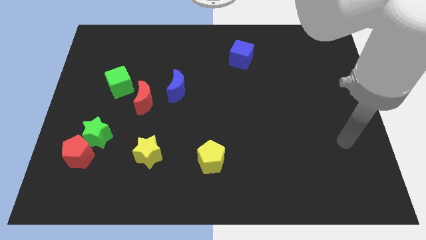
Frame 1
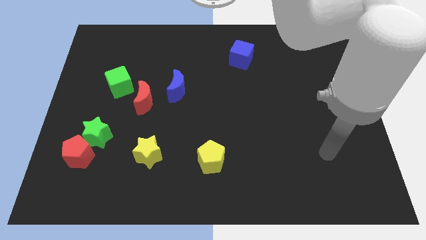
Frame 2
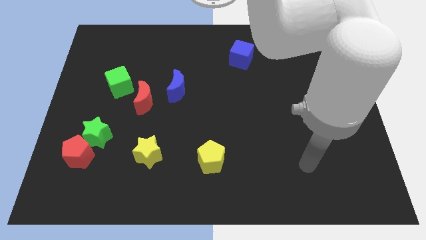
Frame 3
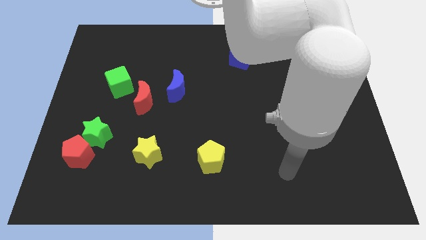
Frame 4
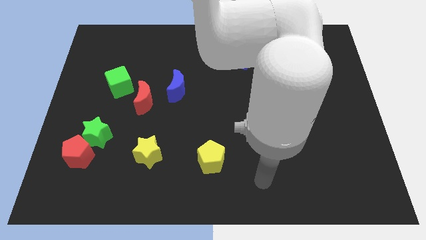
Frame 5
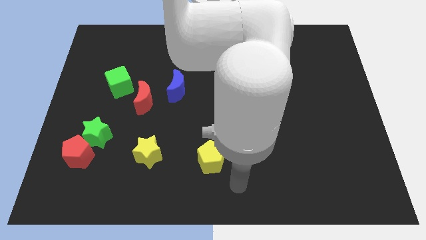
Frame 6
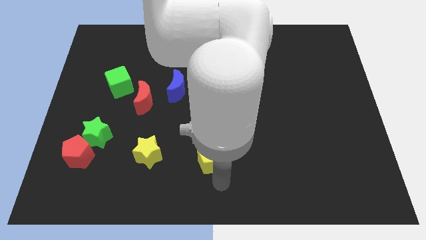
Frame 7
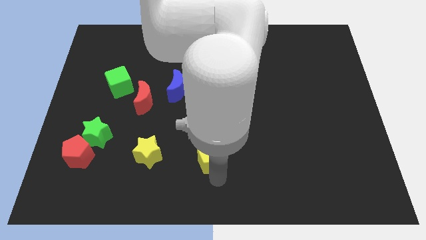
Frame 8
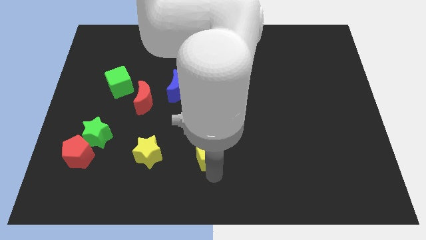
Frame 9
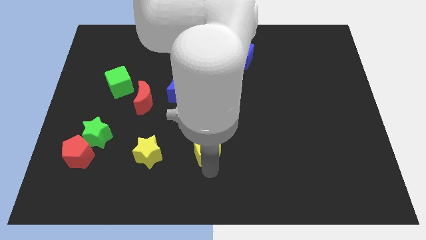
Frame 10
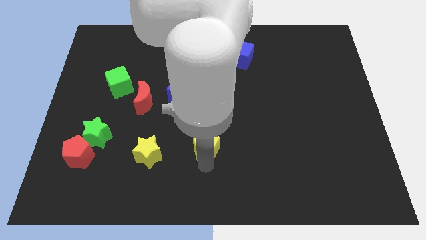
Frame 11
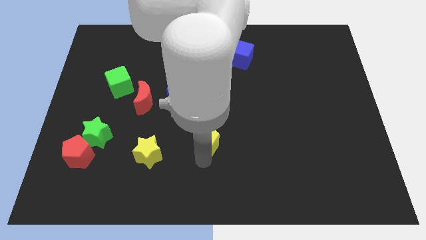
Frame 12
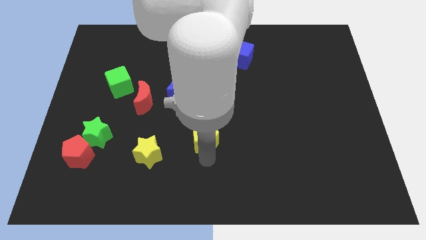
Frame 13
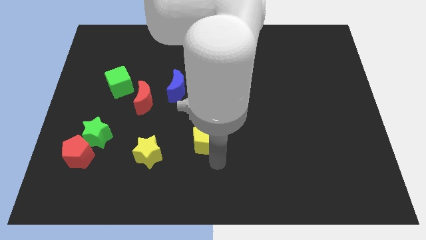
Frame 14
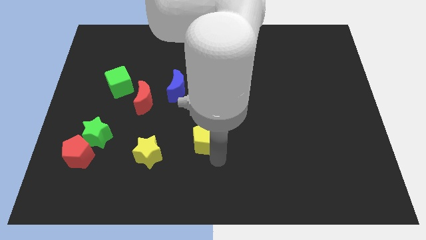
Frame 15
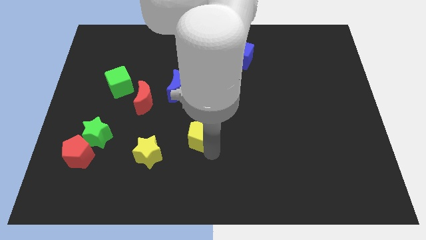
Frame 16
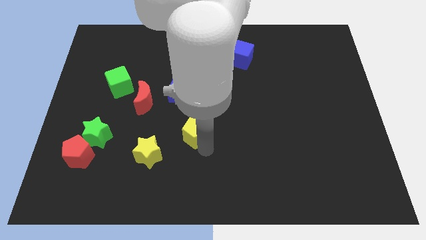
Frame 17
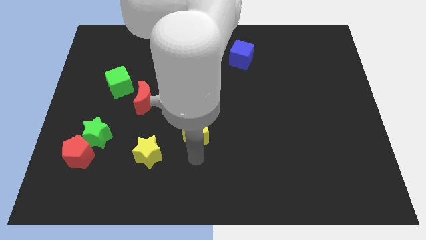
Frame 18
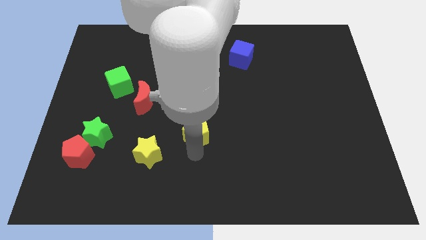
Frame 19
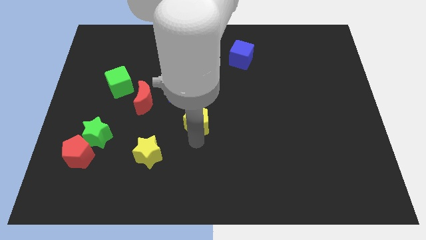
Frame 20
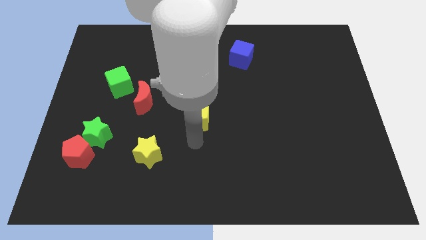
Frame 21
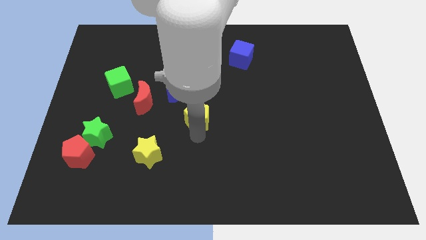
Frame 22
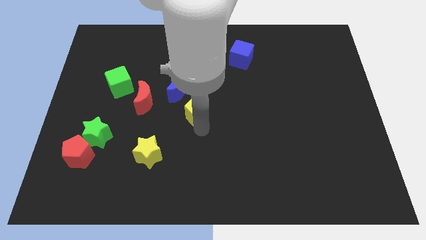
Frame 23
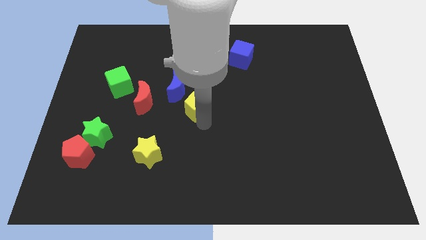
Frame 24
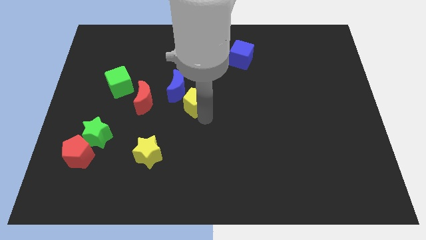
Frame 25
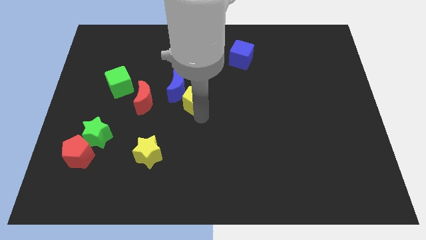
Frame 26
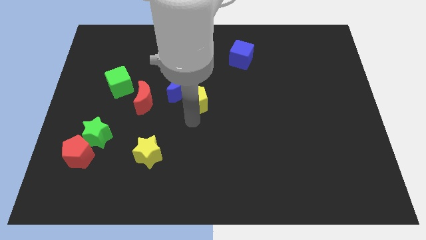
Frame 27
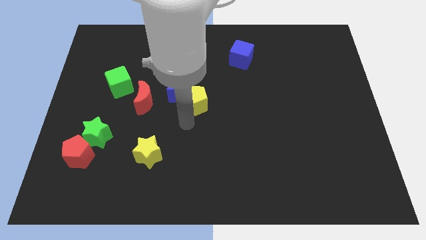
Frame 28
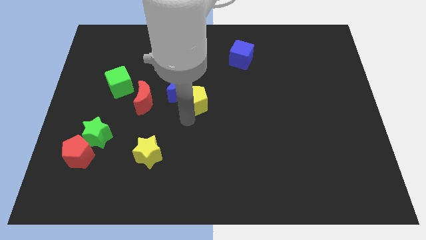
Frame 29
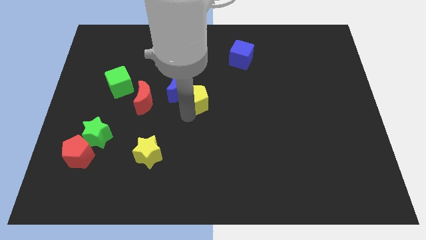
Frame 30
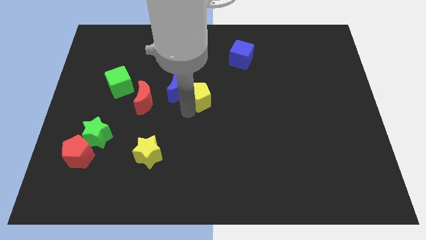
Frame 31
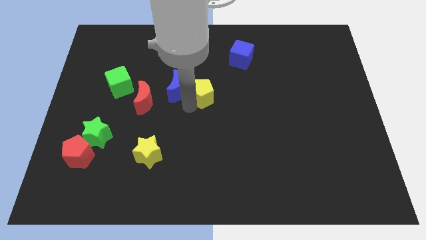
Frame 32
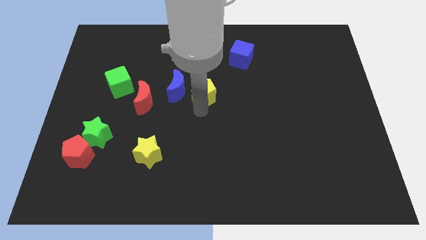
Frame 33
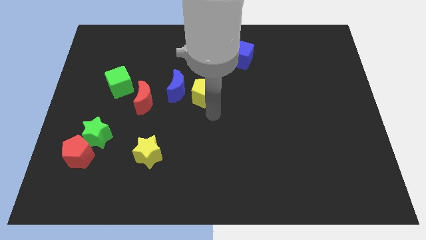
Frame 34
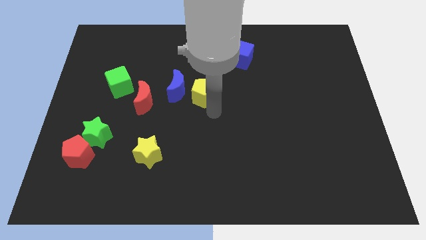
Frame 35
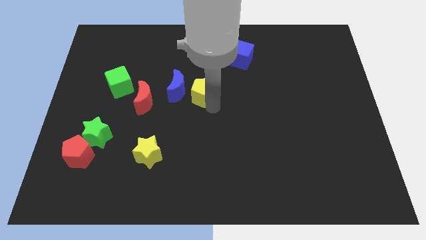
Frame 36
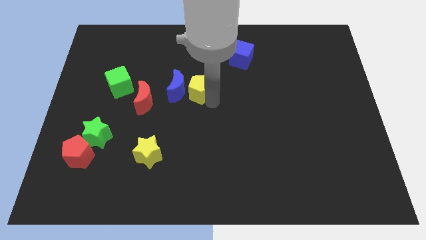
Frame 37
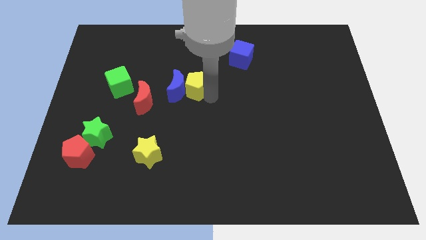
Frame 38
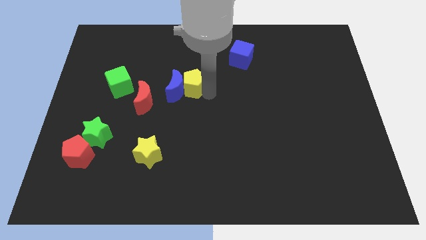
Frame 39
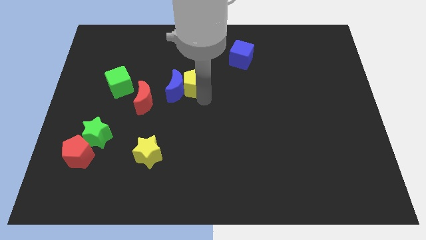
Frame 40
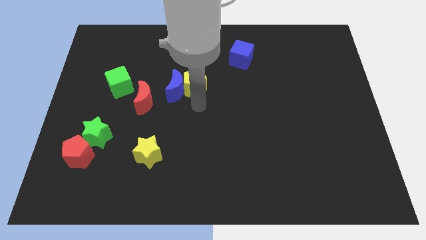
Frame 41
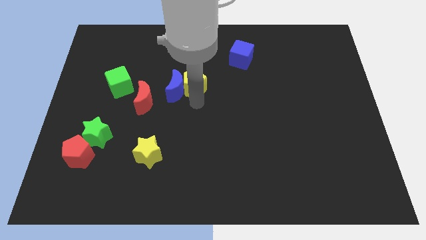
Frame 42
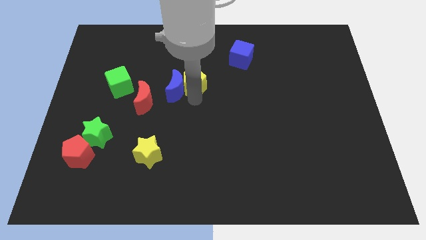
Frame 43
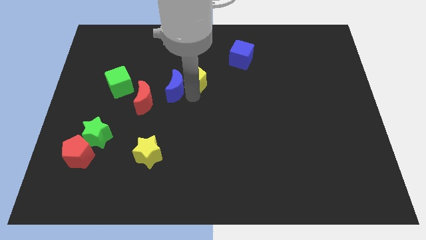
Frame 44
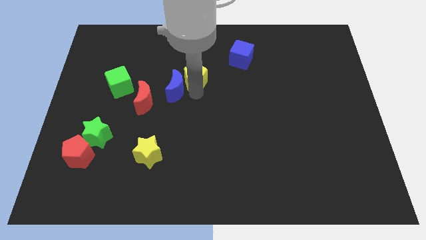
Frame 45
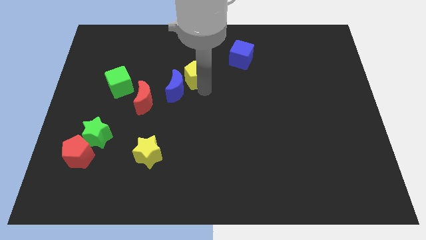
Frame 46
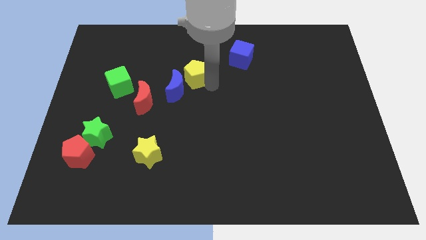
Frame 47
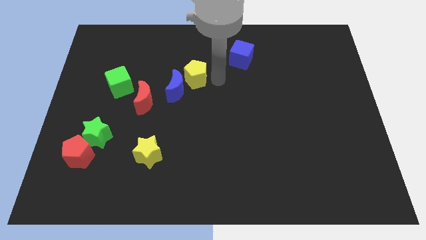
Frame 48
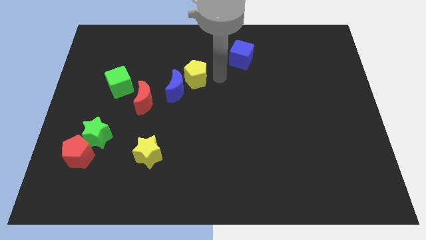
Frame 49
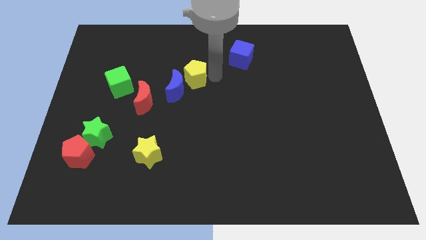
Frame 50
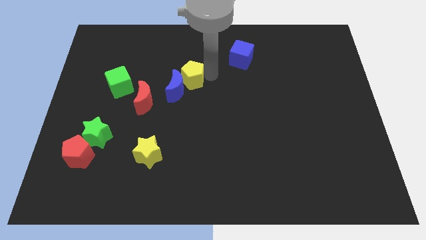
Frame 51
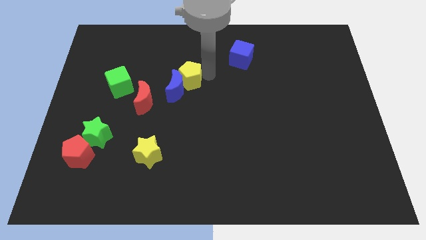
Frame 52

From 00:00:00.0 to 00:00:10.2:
put the yellow pentagon to the top right of the red moon

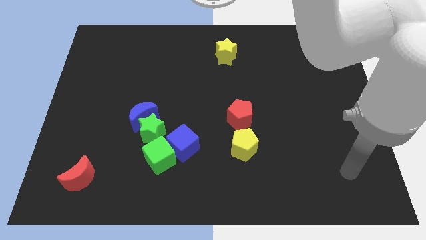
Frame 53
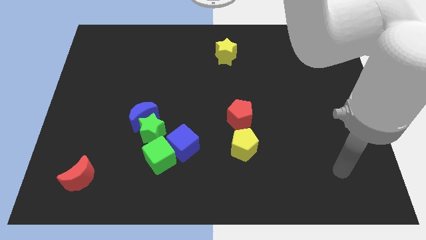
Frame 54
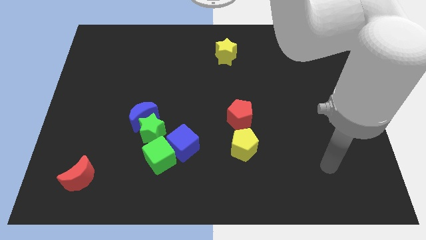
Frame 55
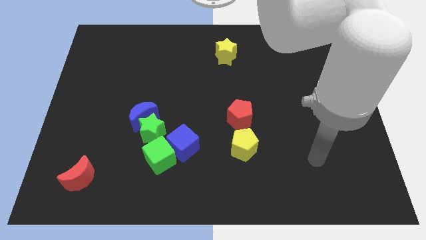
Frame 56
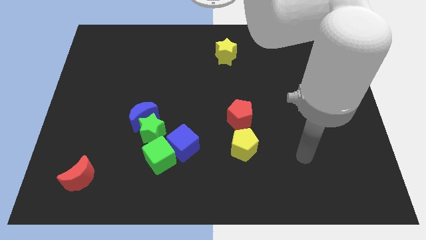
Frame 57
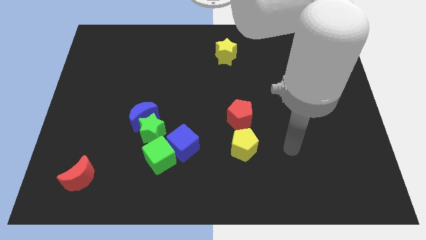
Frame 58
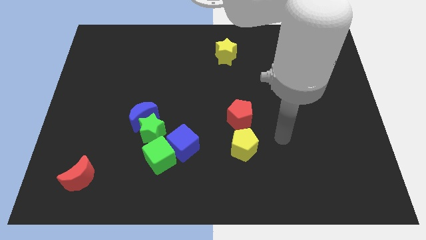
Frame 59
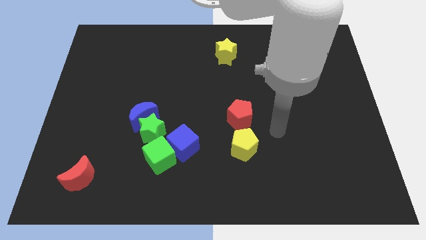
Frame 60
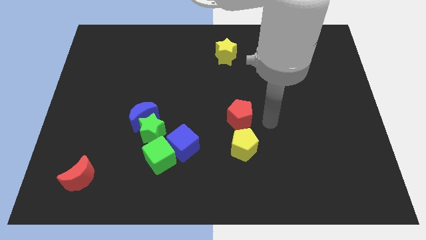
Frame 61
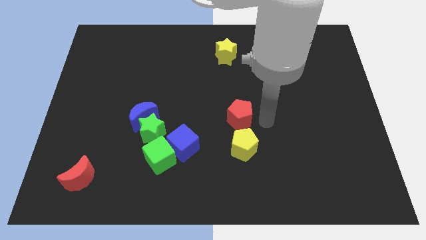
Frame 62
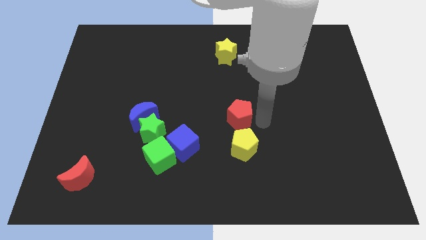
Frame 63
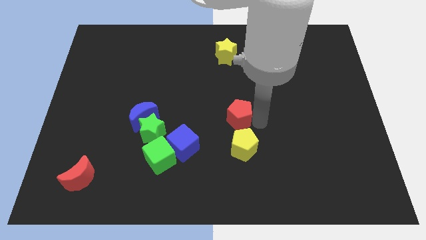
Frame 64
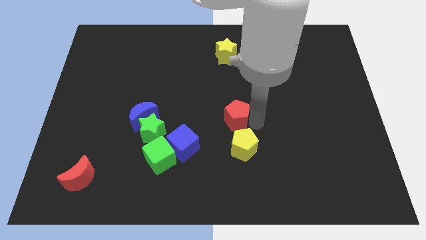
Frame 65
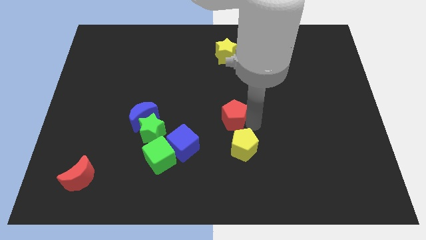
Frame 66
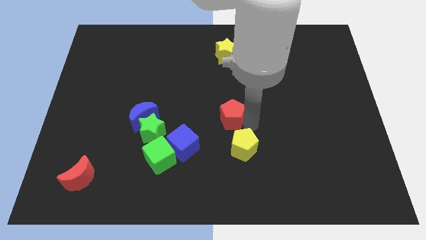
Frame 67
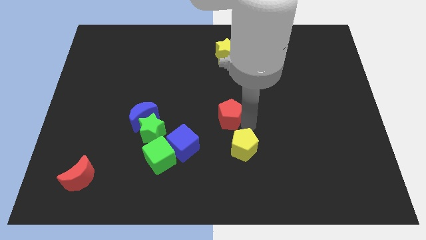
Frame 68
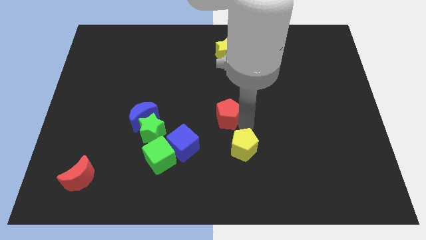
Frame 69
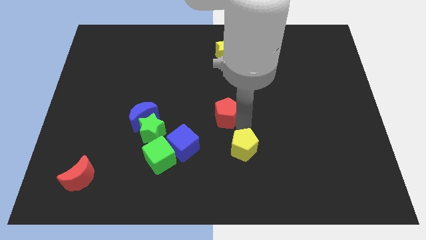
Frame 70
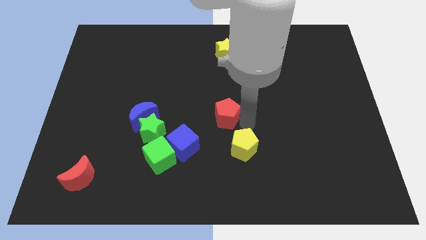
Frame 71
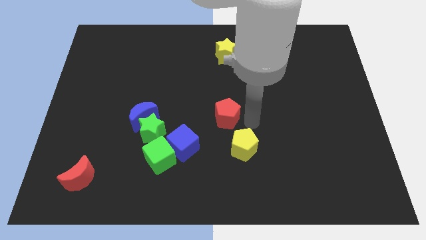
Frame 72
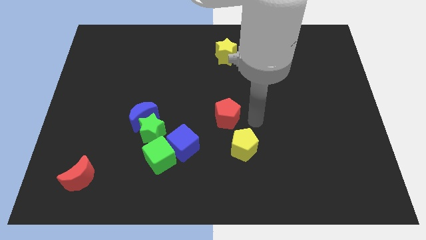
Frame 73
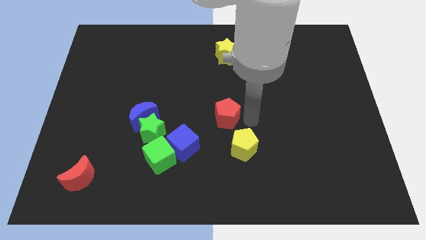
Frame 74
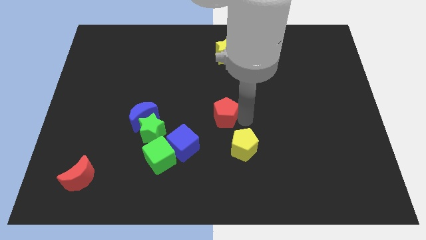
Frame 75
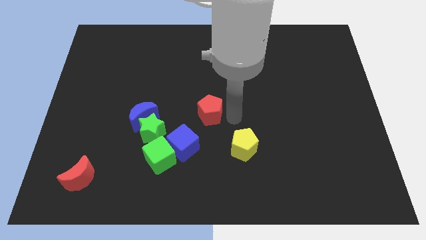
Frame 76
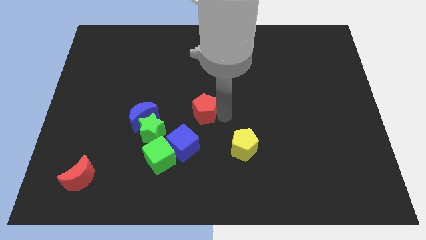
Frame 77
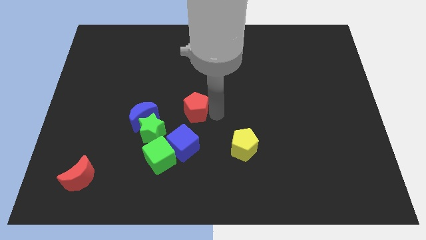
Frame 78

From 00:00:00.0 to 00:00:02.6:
put the red pentagon diagonally up and to the right of the green star

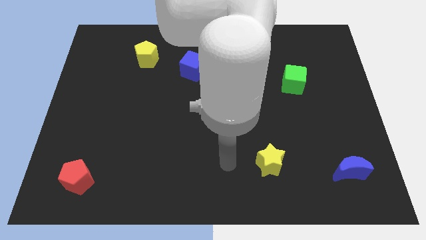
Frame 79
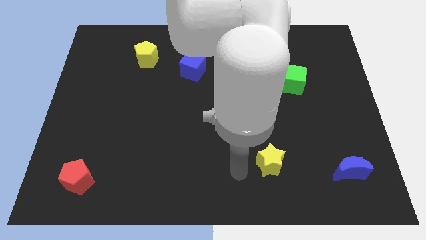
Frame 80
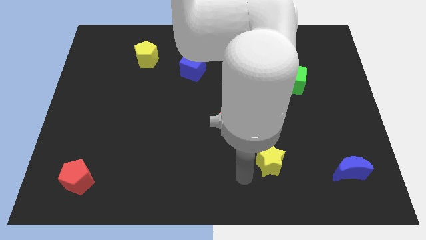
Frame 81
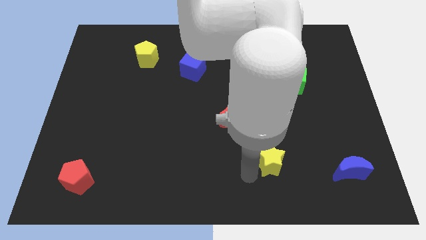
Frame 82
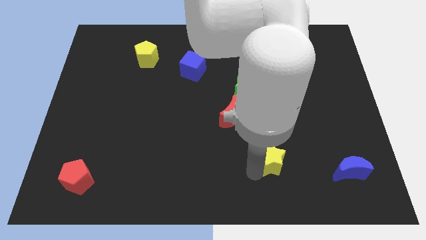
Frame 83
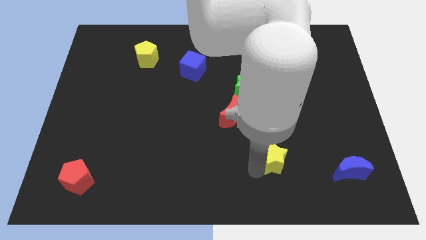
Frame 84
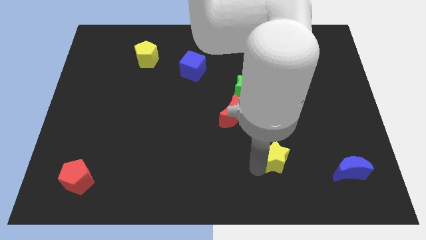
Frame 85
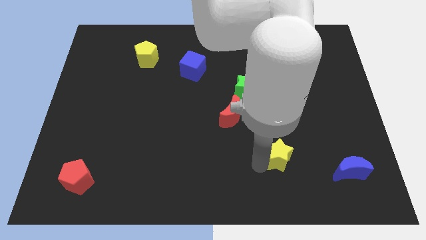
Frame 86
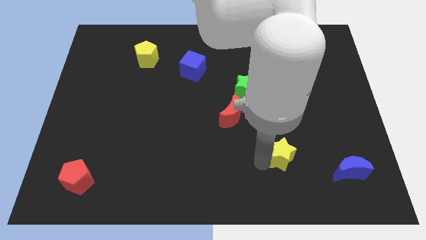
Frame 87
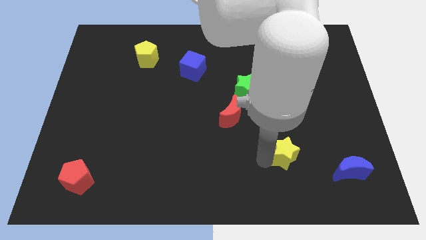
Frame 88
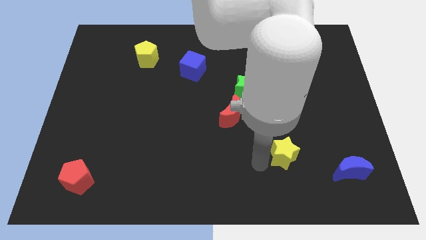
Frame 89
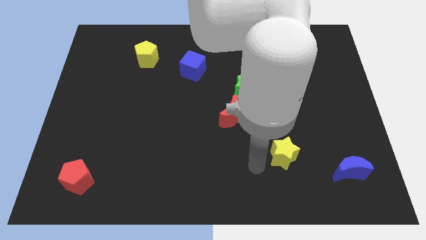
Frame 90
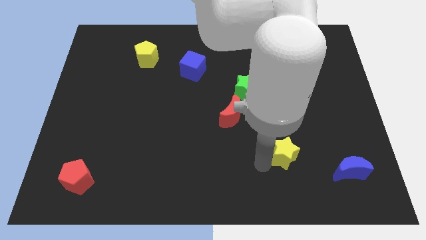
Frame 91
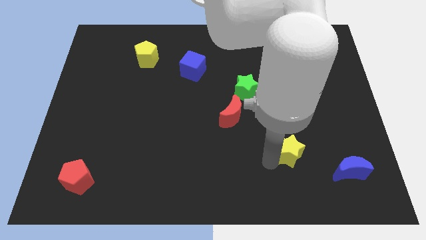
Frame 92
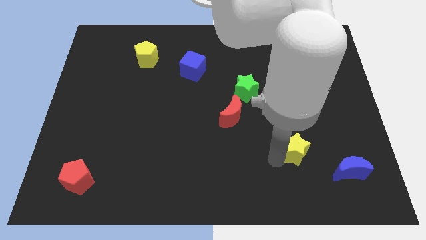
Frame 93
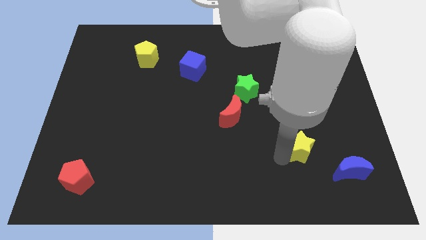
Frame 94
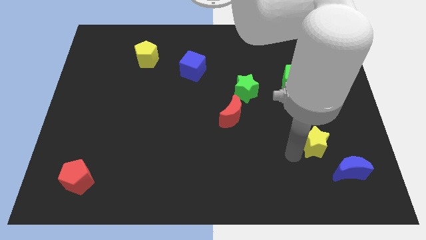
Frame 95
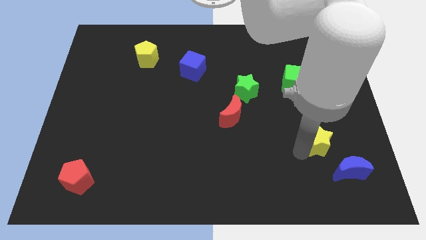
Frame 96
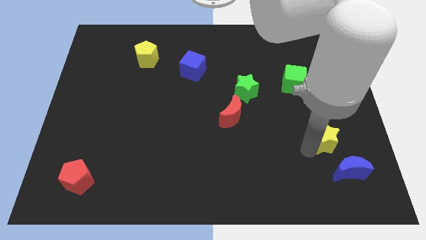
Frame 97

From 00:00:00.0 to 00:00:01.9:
move the yellow star above the blue moon
